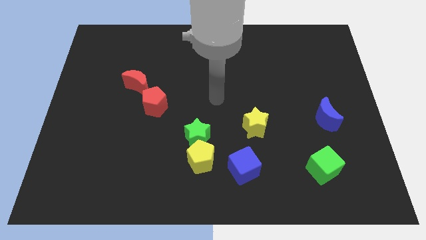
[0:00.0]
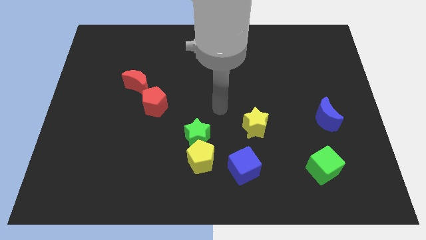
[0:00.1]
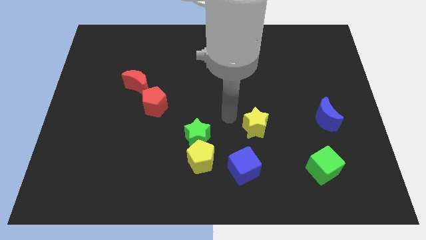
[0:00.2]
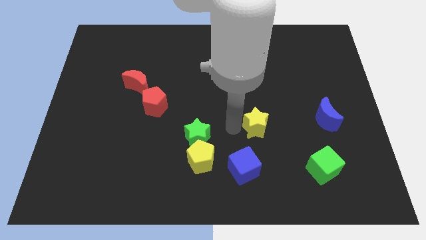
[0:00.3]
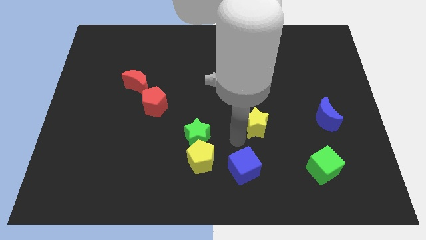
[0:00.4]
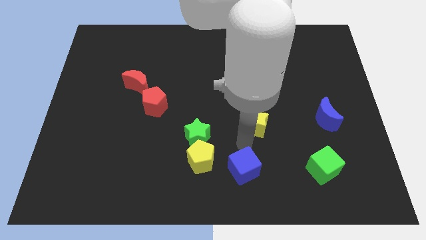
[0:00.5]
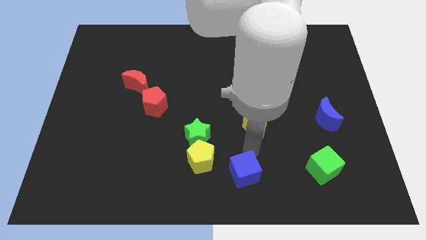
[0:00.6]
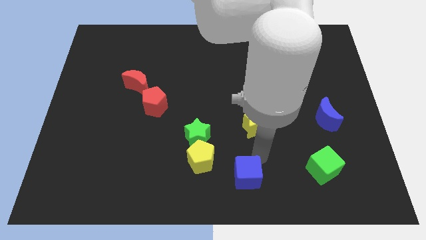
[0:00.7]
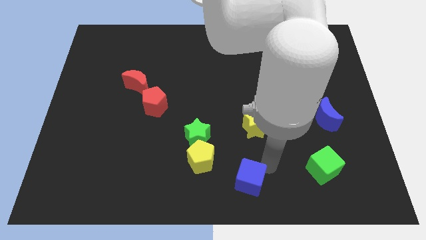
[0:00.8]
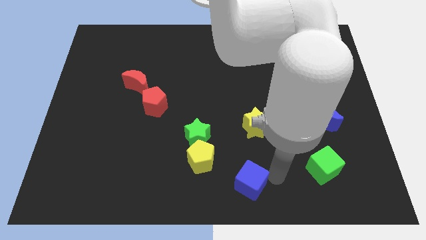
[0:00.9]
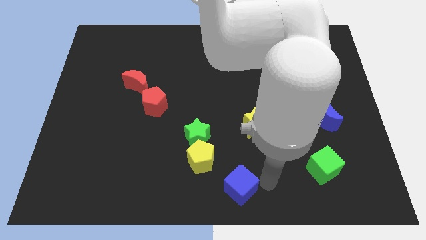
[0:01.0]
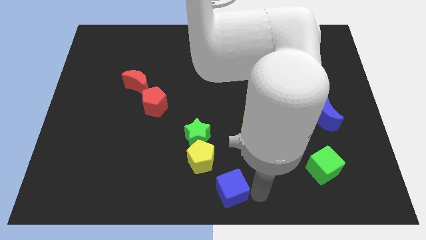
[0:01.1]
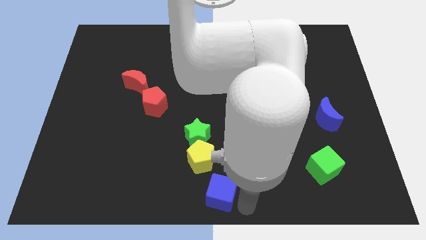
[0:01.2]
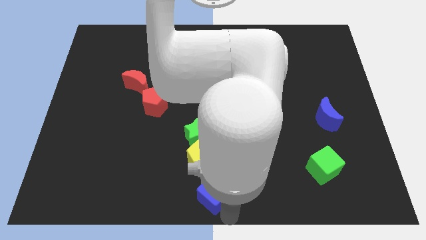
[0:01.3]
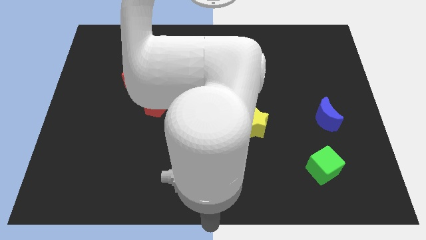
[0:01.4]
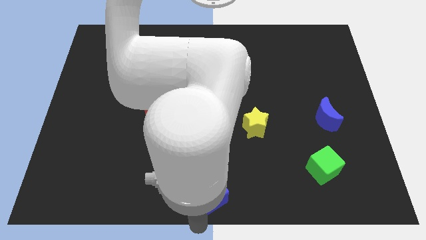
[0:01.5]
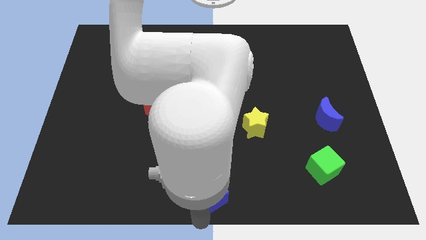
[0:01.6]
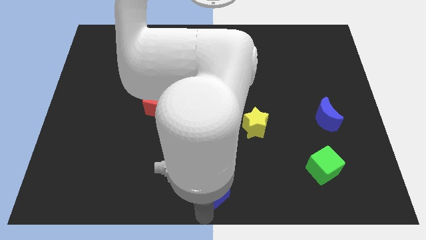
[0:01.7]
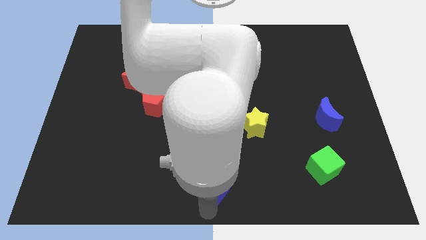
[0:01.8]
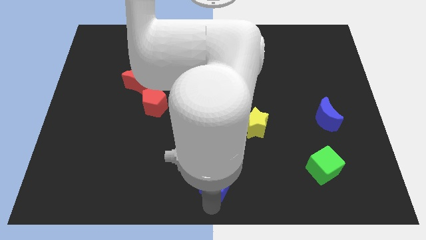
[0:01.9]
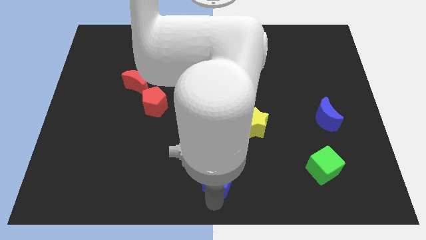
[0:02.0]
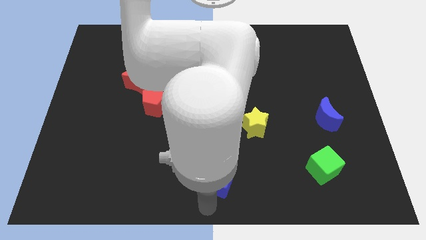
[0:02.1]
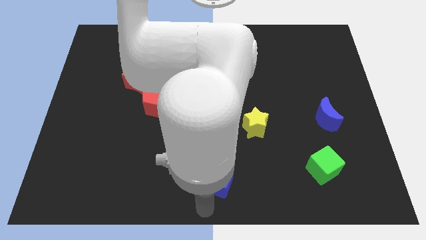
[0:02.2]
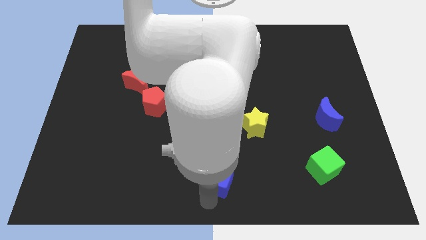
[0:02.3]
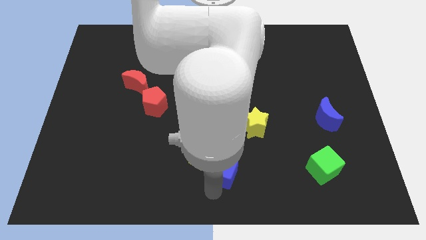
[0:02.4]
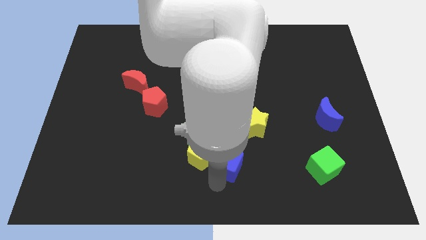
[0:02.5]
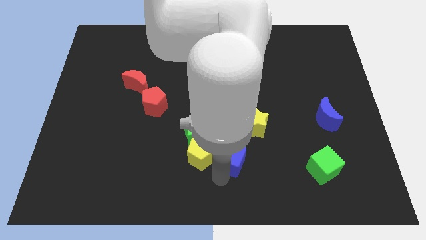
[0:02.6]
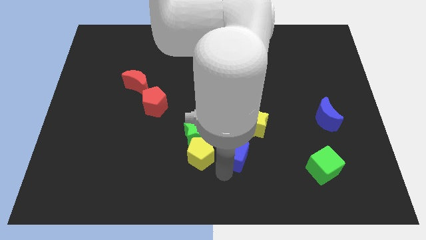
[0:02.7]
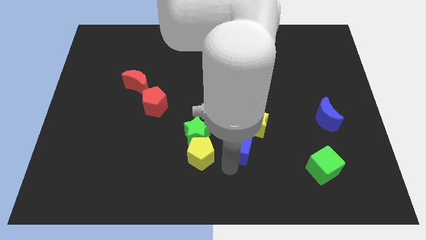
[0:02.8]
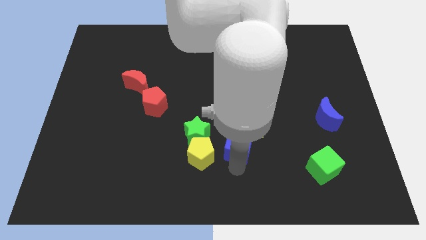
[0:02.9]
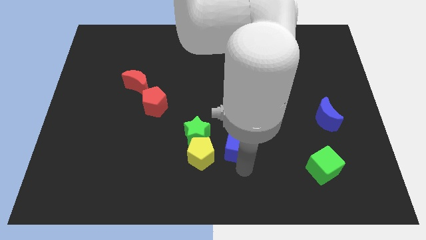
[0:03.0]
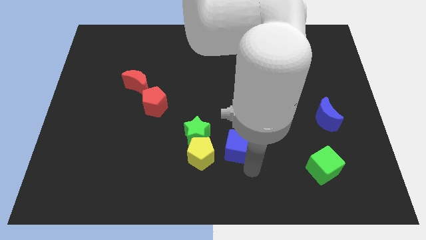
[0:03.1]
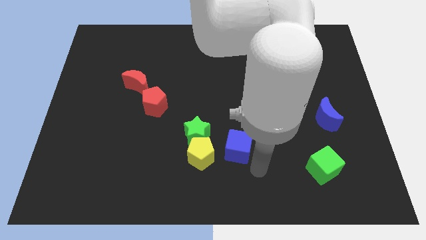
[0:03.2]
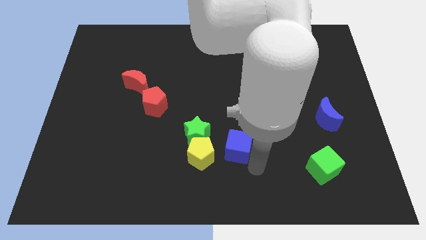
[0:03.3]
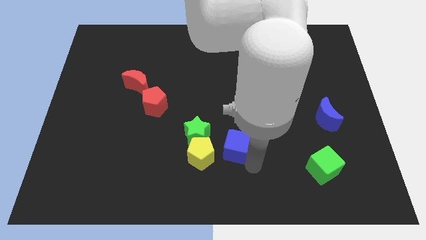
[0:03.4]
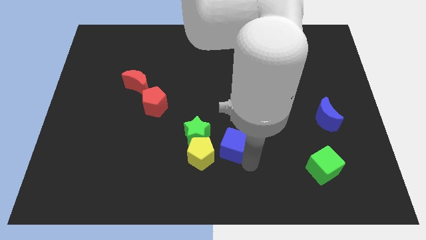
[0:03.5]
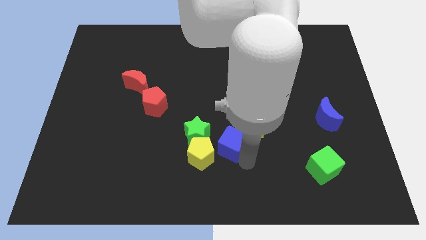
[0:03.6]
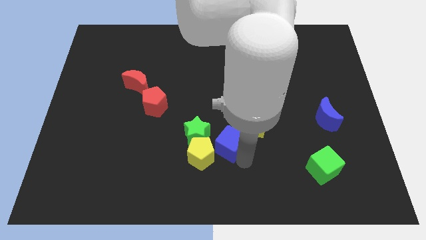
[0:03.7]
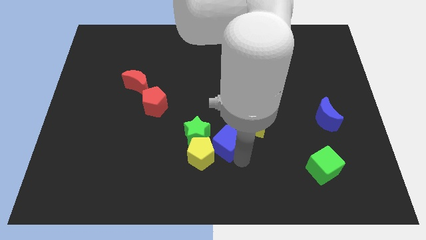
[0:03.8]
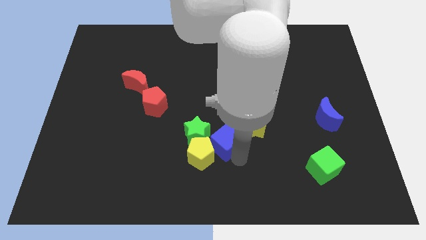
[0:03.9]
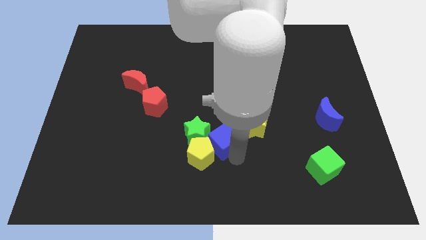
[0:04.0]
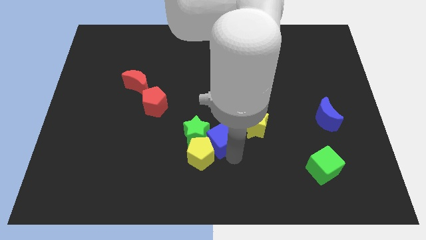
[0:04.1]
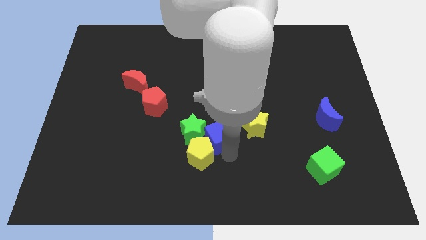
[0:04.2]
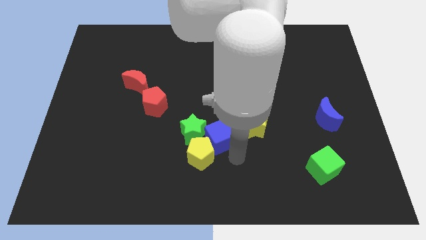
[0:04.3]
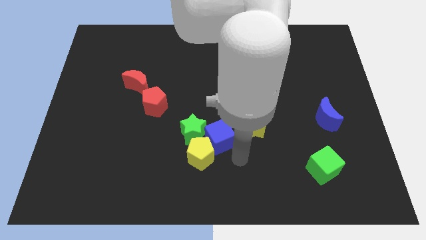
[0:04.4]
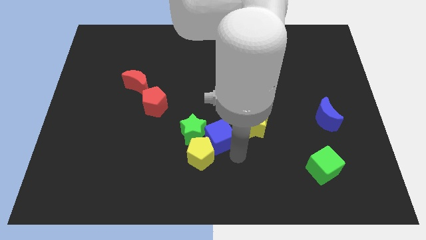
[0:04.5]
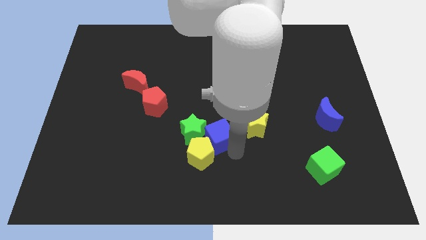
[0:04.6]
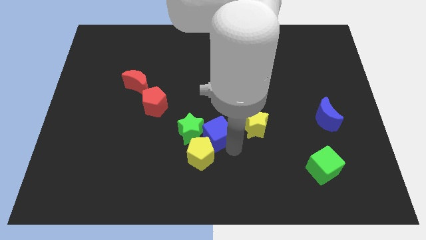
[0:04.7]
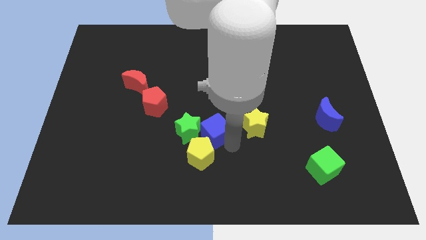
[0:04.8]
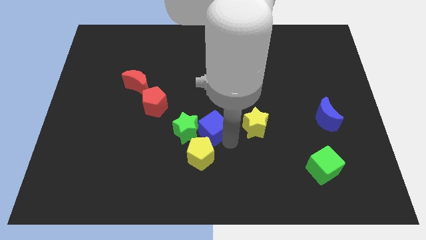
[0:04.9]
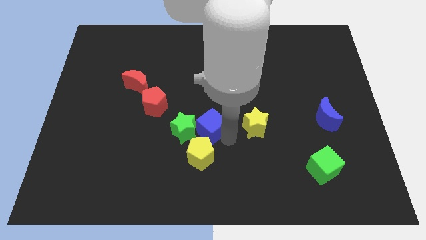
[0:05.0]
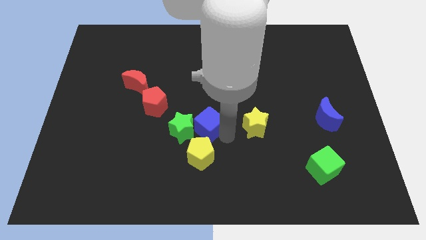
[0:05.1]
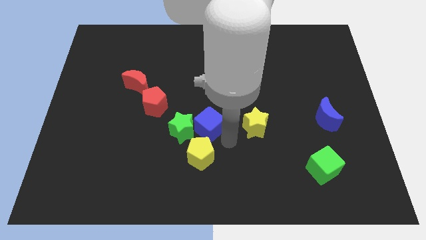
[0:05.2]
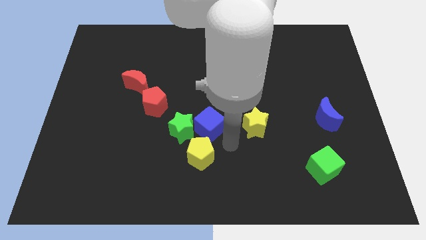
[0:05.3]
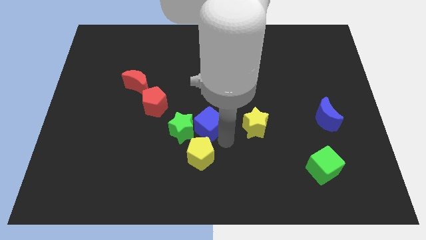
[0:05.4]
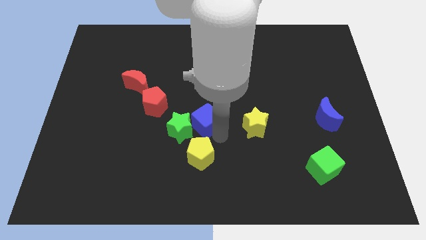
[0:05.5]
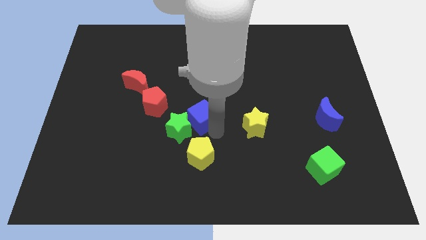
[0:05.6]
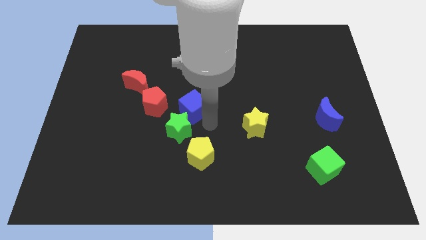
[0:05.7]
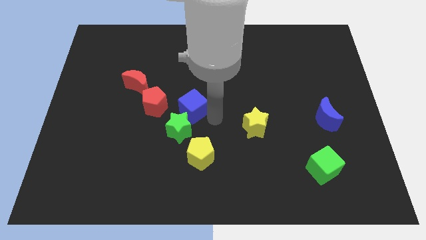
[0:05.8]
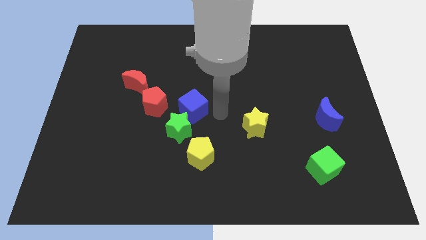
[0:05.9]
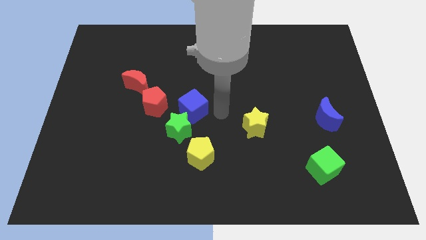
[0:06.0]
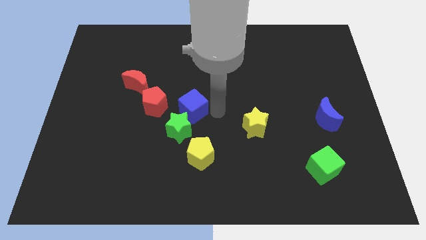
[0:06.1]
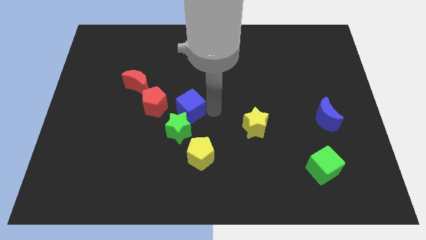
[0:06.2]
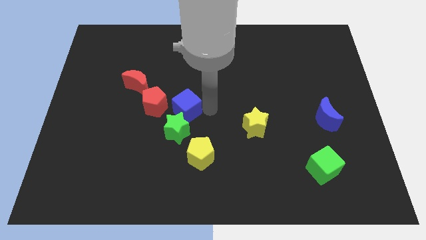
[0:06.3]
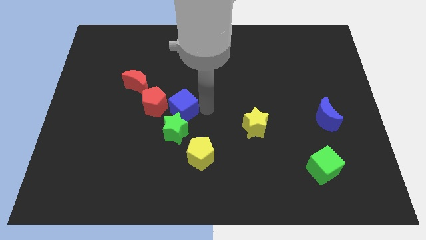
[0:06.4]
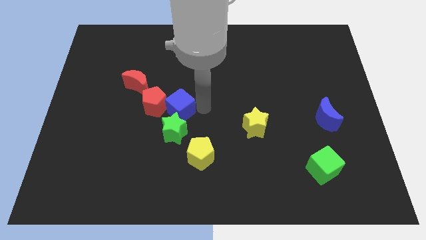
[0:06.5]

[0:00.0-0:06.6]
move the blue cube next to the red pentagon

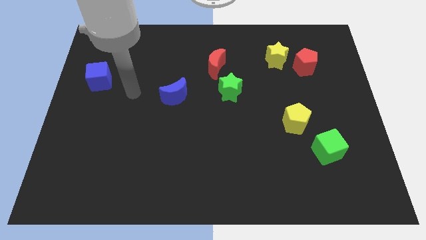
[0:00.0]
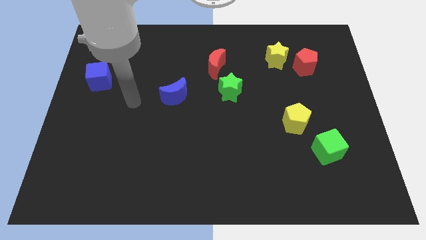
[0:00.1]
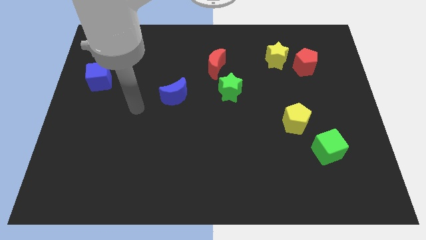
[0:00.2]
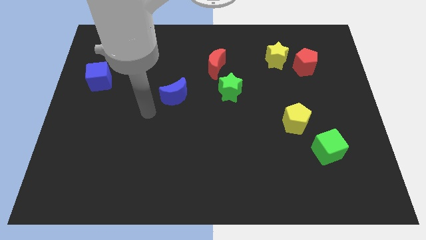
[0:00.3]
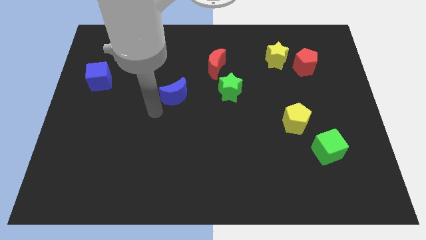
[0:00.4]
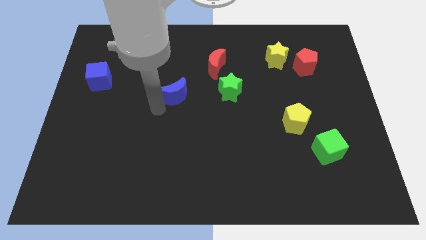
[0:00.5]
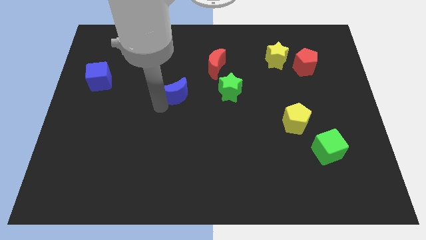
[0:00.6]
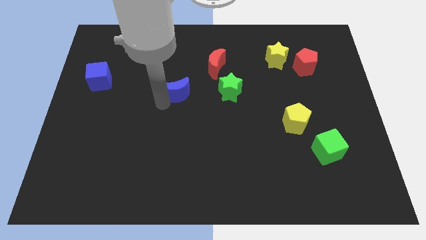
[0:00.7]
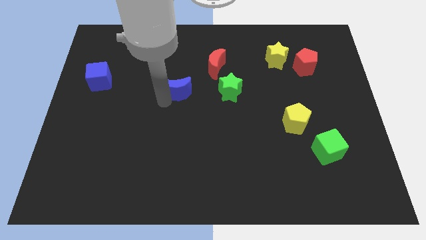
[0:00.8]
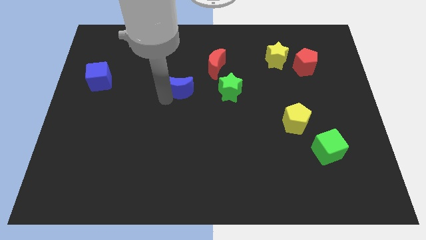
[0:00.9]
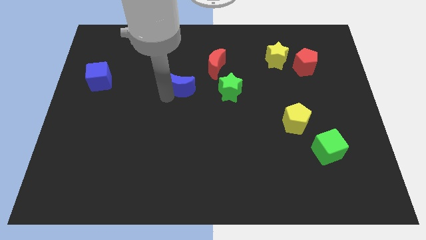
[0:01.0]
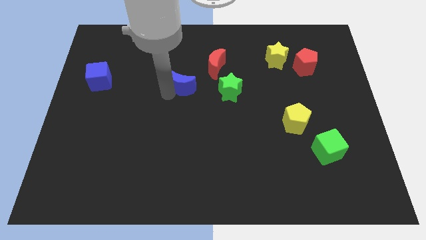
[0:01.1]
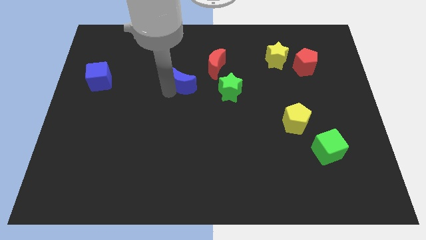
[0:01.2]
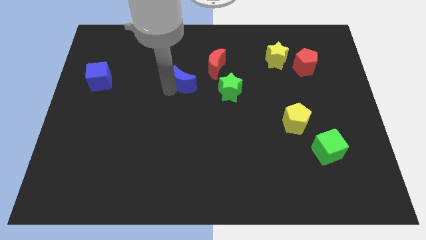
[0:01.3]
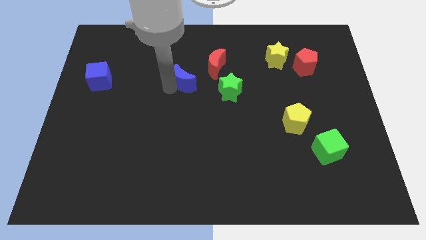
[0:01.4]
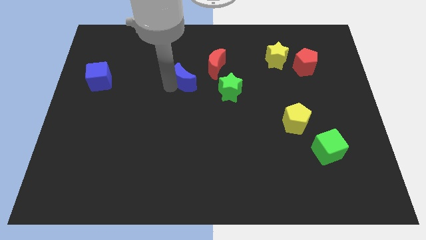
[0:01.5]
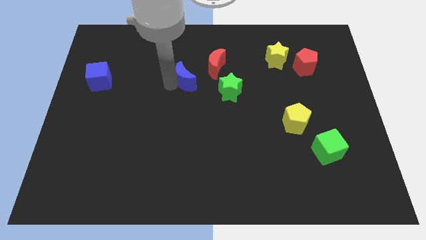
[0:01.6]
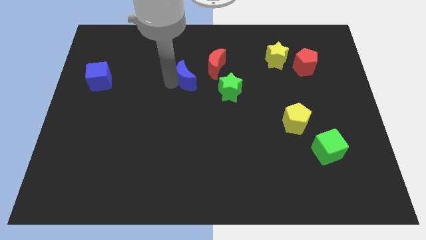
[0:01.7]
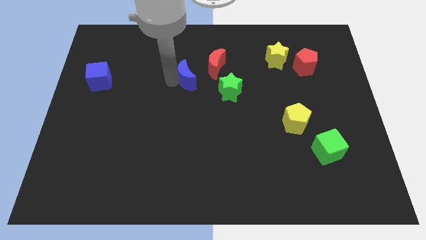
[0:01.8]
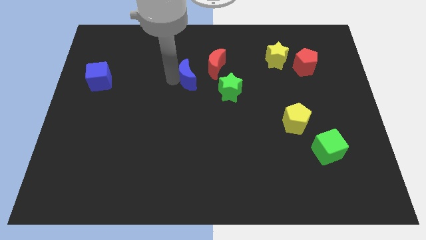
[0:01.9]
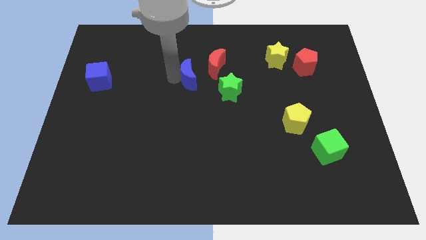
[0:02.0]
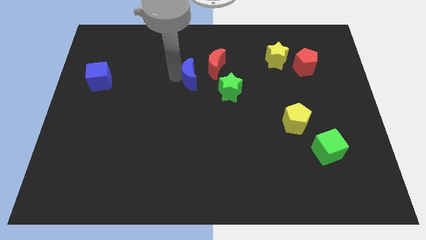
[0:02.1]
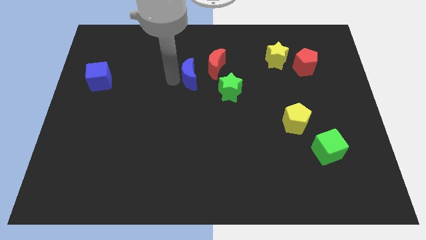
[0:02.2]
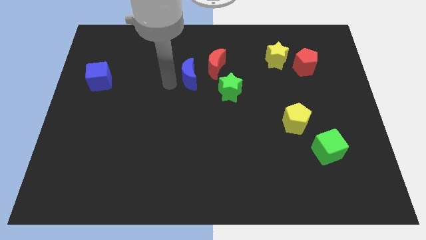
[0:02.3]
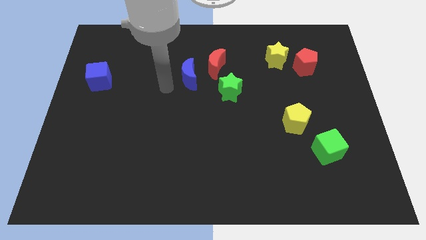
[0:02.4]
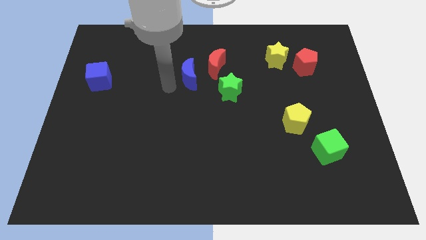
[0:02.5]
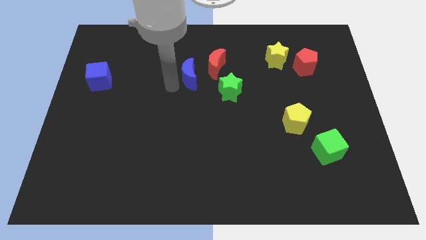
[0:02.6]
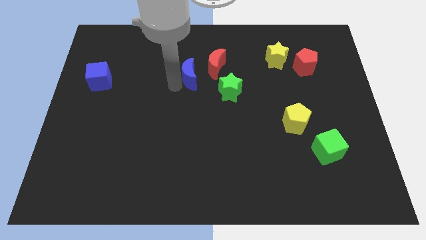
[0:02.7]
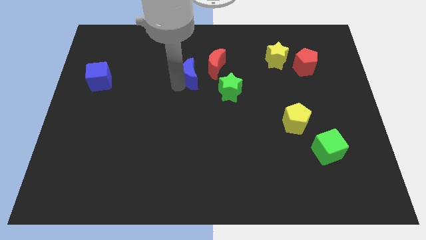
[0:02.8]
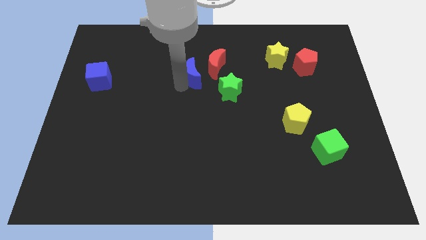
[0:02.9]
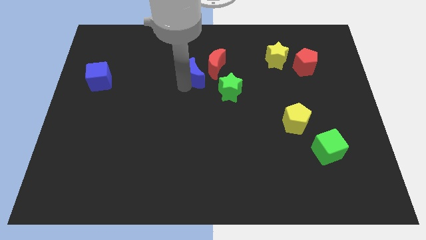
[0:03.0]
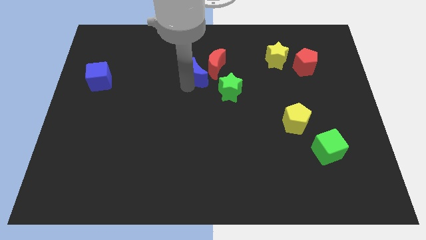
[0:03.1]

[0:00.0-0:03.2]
slide the blue moon next to the red moon
